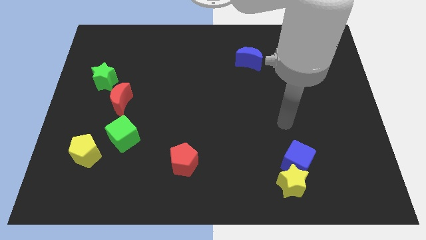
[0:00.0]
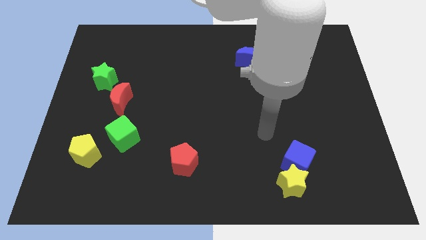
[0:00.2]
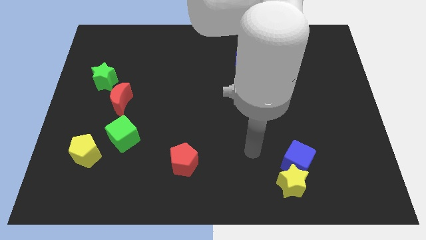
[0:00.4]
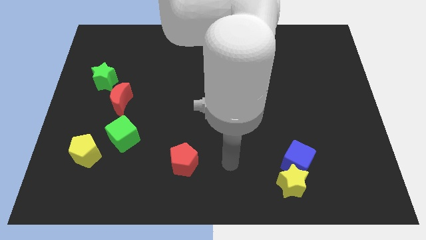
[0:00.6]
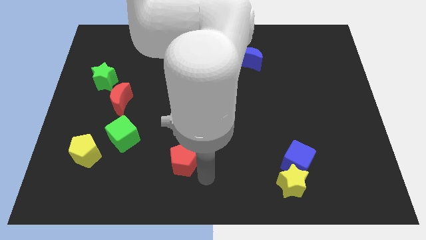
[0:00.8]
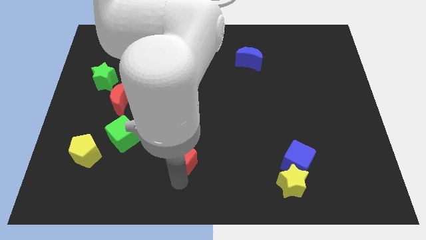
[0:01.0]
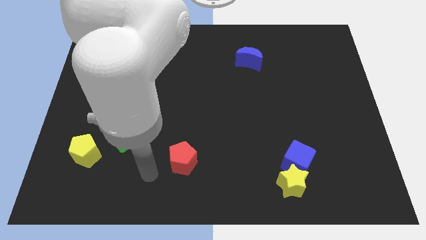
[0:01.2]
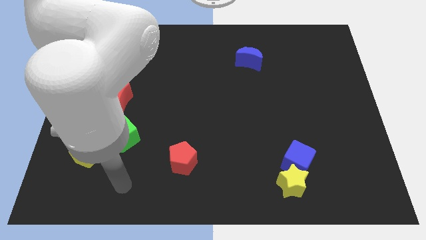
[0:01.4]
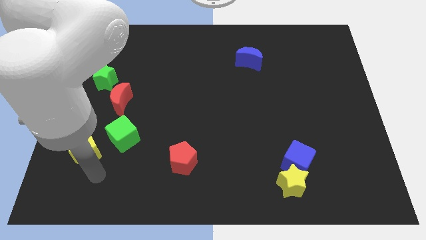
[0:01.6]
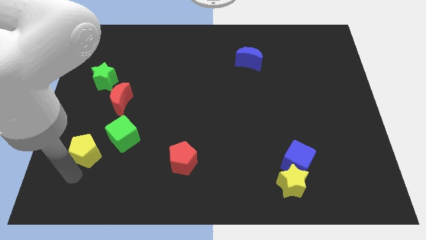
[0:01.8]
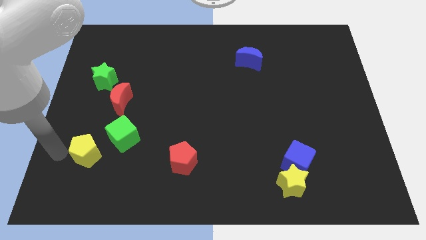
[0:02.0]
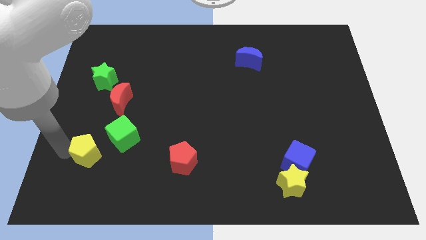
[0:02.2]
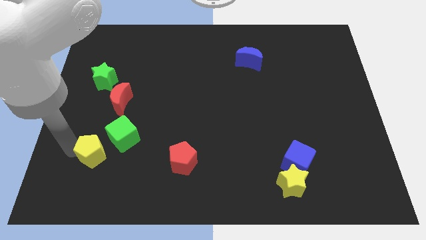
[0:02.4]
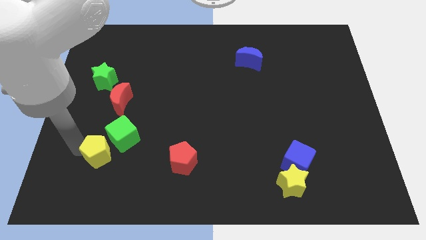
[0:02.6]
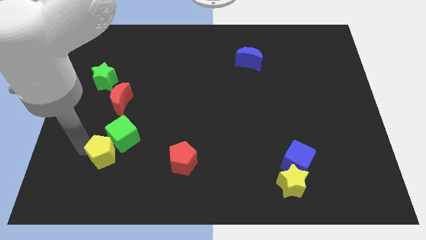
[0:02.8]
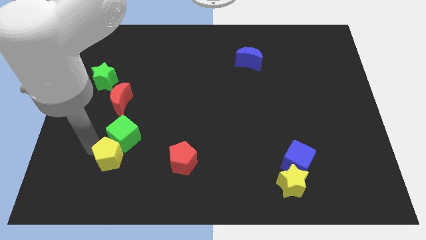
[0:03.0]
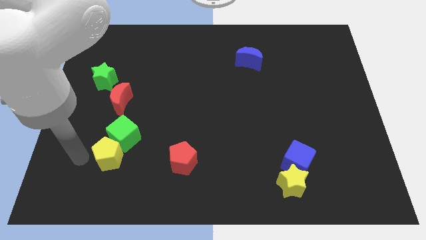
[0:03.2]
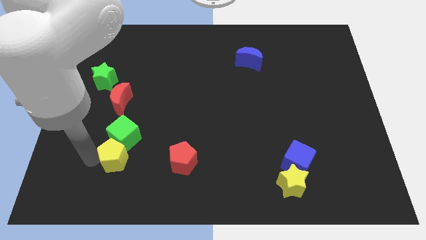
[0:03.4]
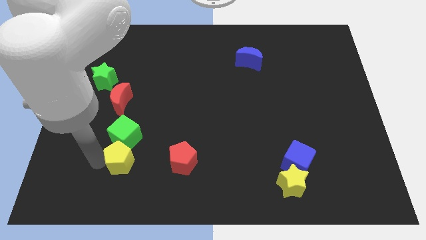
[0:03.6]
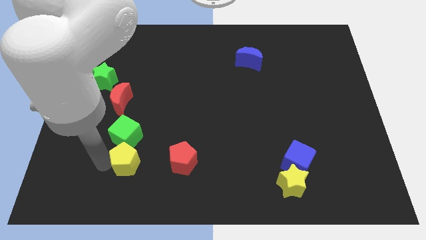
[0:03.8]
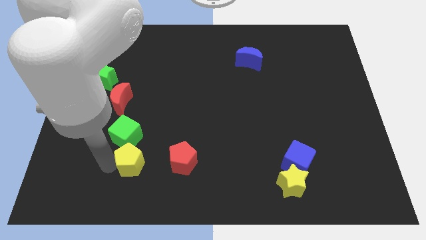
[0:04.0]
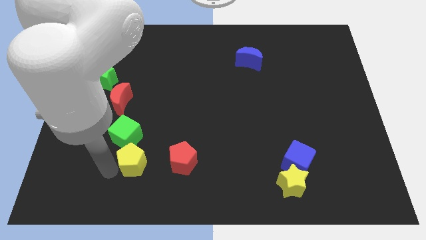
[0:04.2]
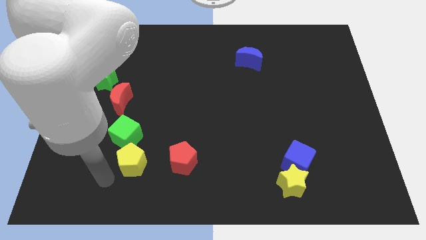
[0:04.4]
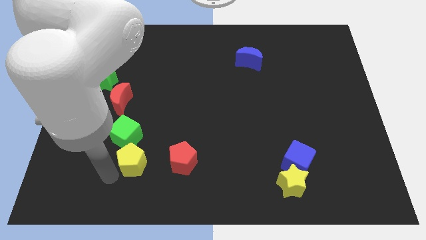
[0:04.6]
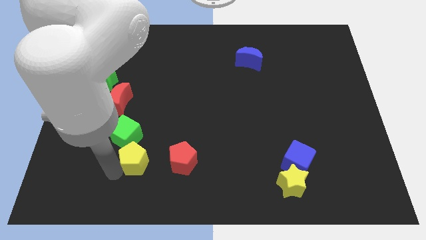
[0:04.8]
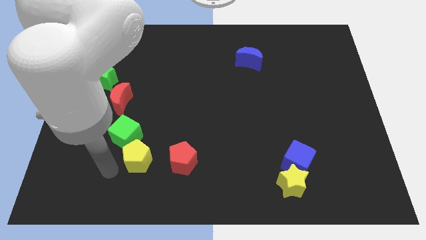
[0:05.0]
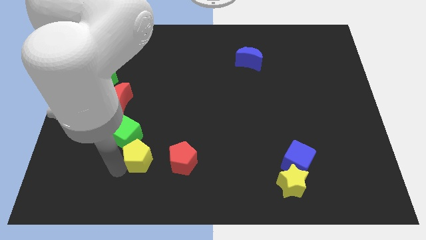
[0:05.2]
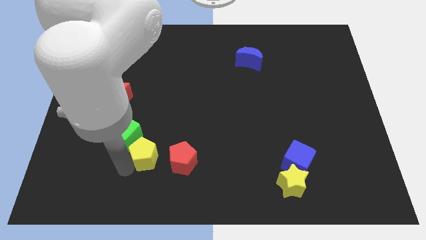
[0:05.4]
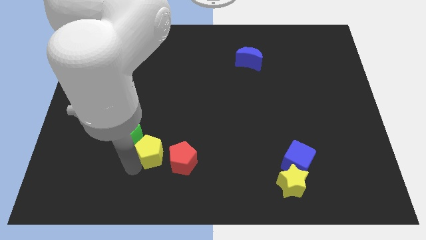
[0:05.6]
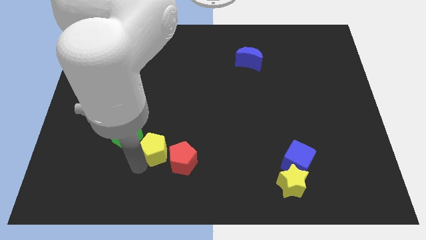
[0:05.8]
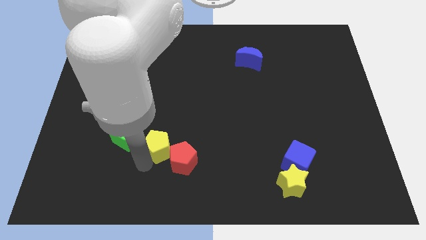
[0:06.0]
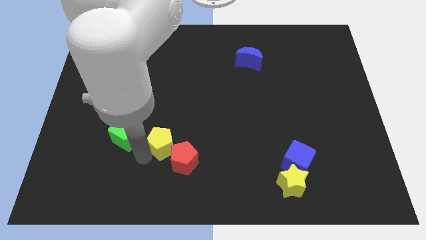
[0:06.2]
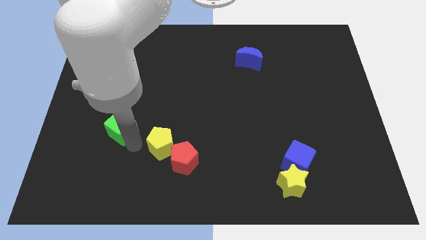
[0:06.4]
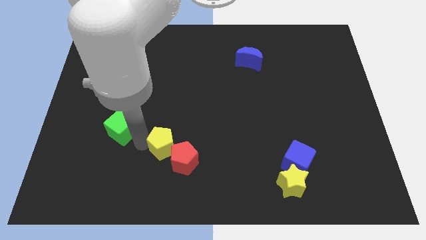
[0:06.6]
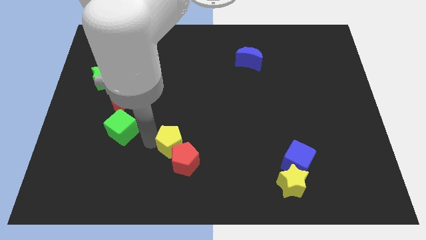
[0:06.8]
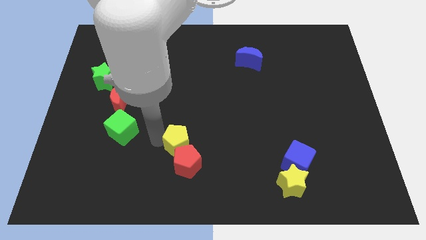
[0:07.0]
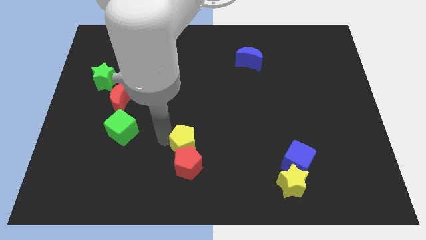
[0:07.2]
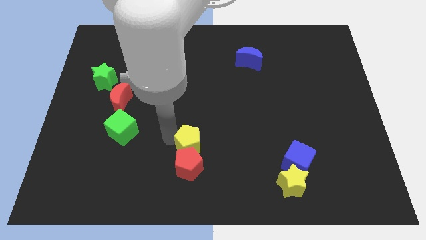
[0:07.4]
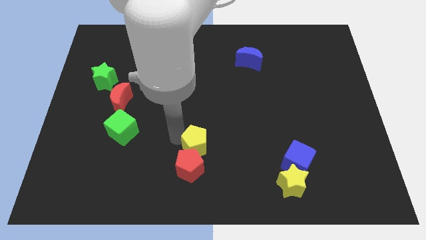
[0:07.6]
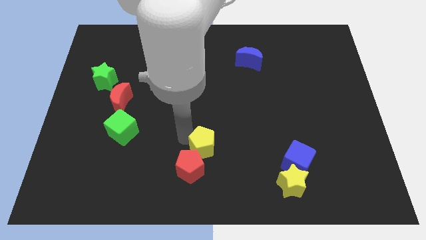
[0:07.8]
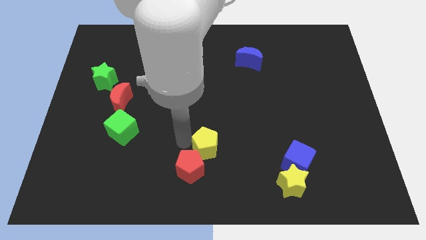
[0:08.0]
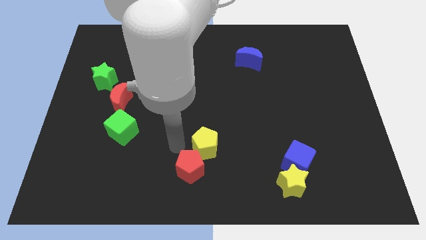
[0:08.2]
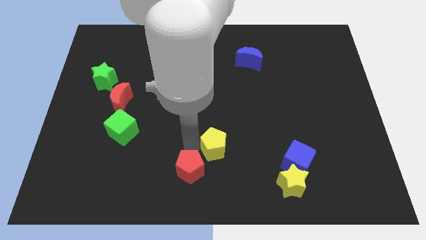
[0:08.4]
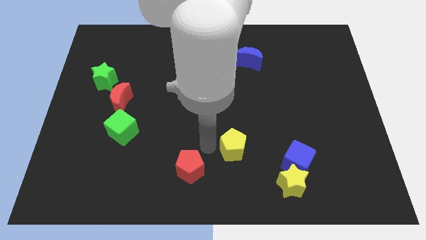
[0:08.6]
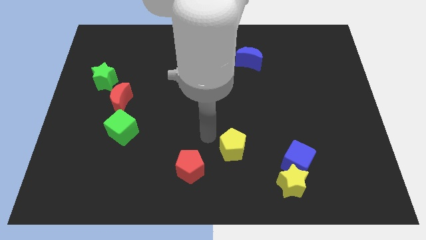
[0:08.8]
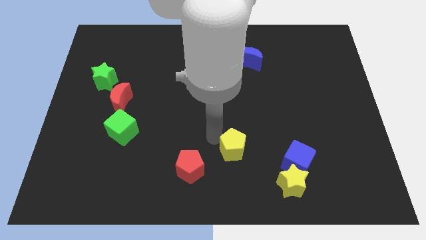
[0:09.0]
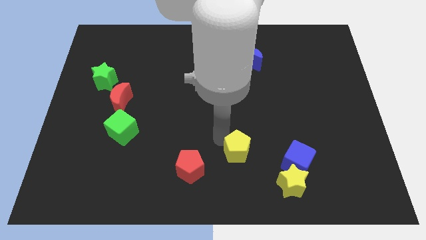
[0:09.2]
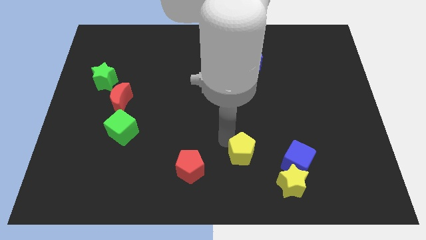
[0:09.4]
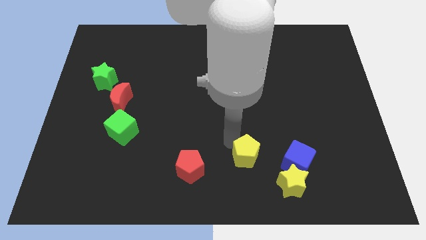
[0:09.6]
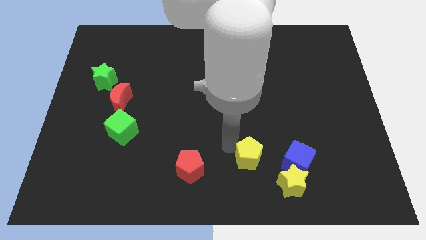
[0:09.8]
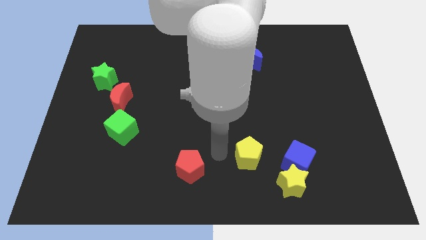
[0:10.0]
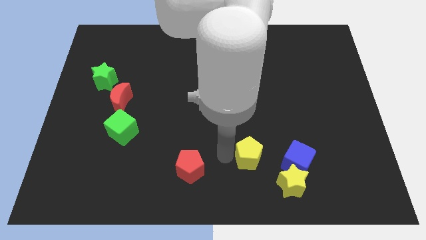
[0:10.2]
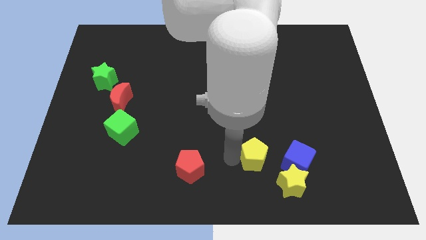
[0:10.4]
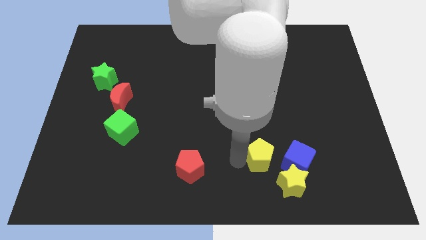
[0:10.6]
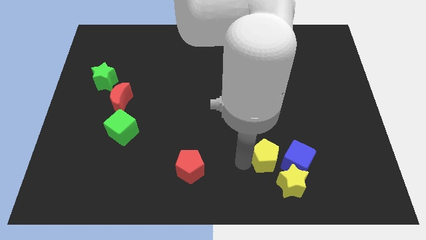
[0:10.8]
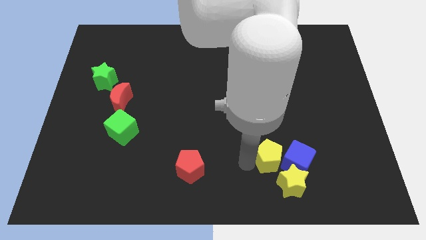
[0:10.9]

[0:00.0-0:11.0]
put the yellow pentagon close to the blue cube

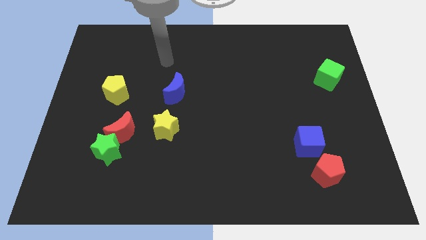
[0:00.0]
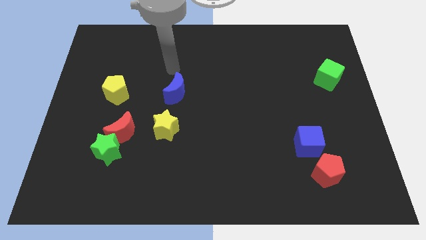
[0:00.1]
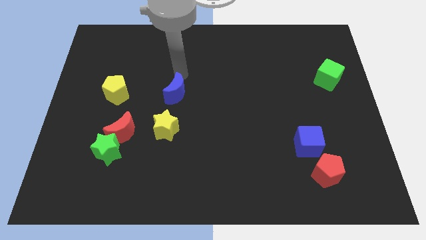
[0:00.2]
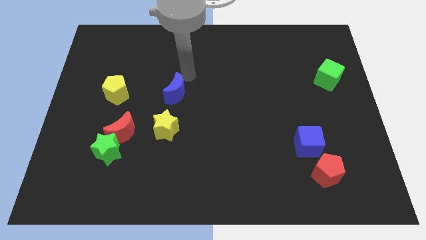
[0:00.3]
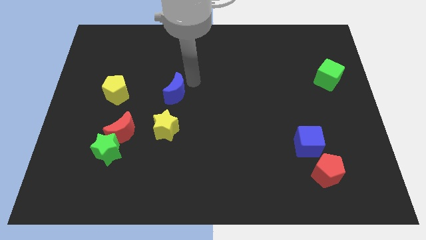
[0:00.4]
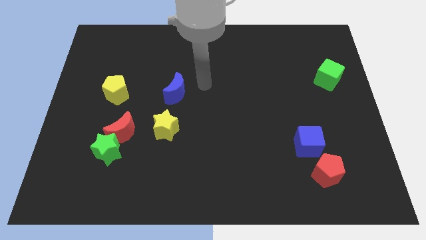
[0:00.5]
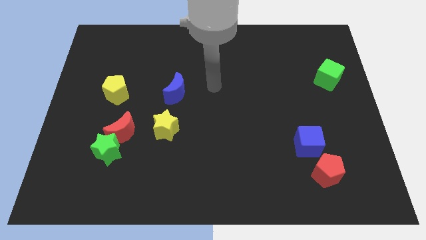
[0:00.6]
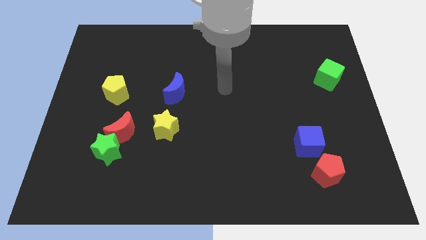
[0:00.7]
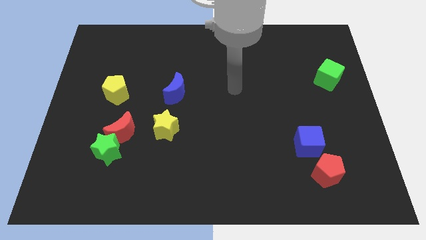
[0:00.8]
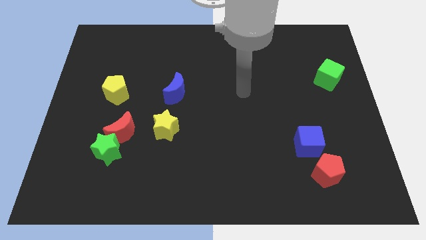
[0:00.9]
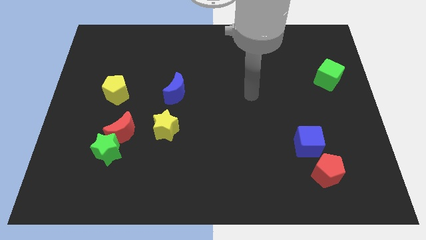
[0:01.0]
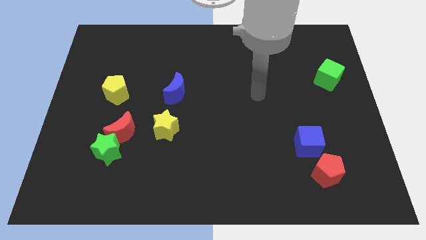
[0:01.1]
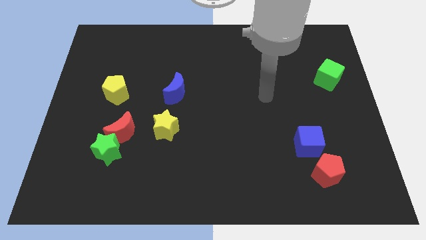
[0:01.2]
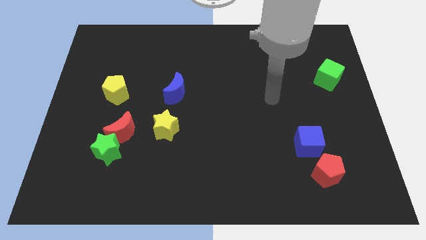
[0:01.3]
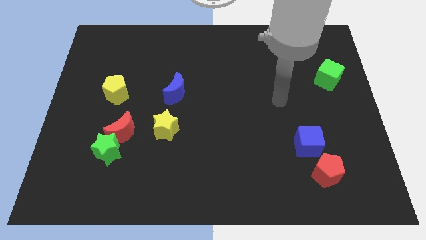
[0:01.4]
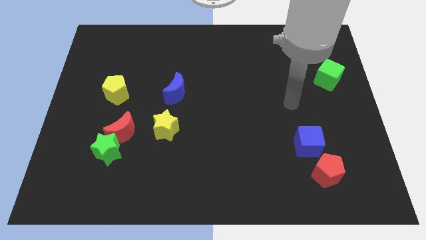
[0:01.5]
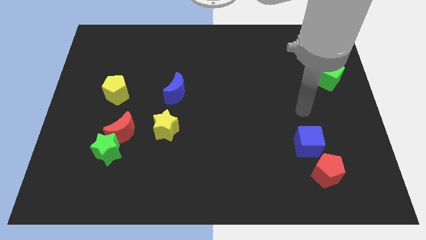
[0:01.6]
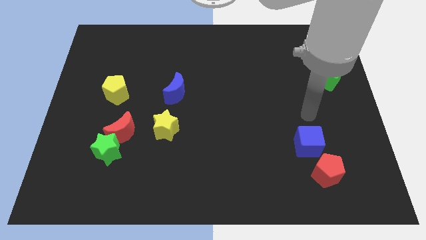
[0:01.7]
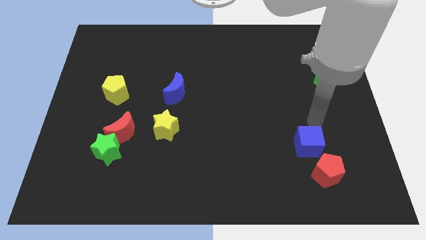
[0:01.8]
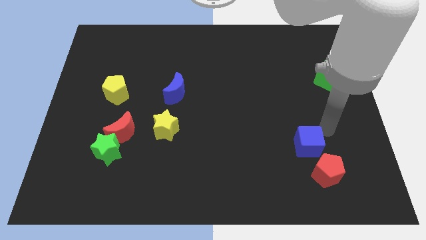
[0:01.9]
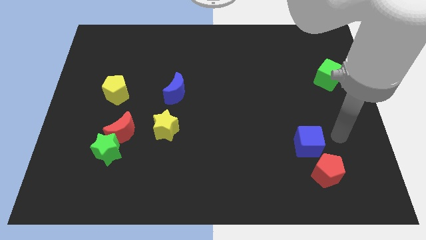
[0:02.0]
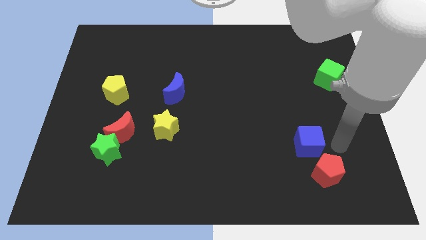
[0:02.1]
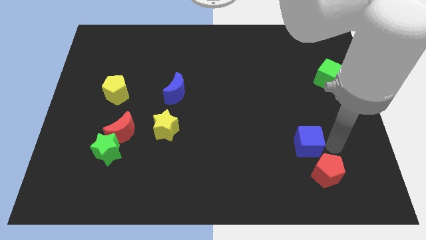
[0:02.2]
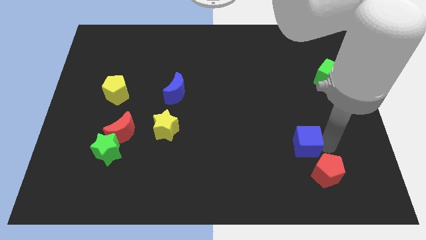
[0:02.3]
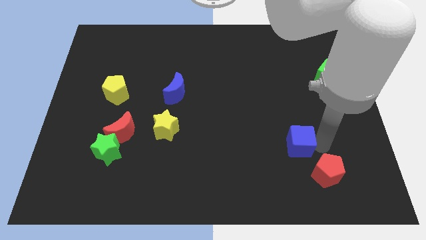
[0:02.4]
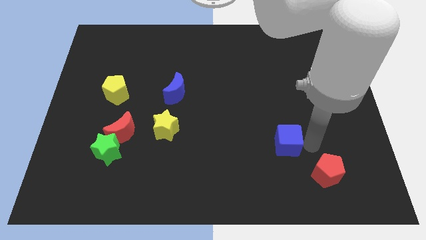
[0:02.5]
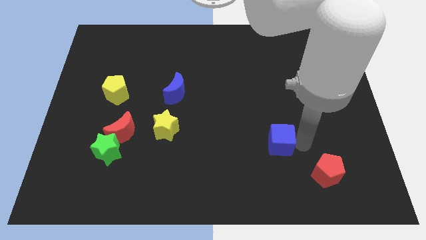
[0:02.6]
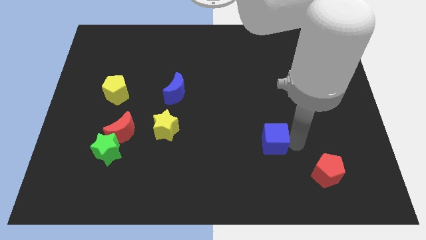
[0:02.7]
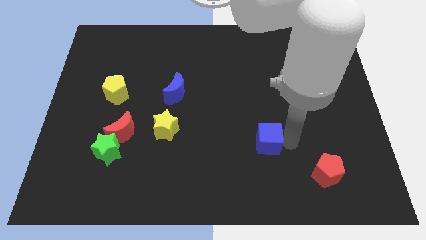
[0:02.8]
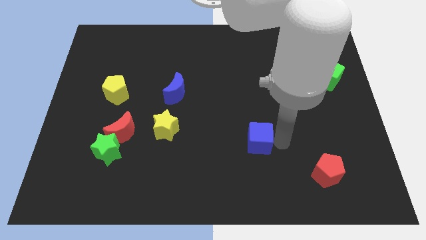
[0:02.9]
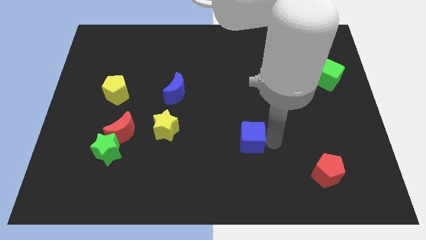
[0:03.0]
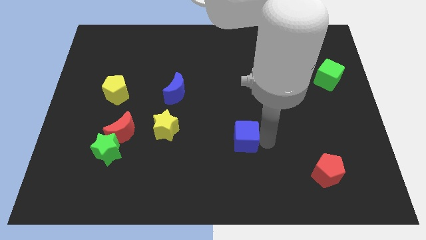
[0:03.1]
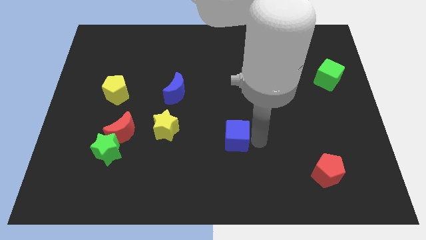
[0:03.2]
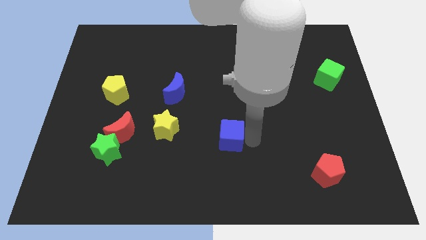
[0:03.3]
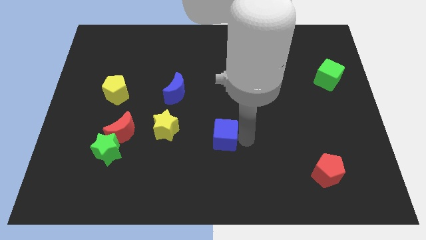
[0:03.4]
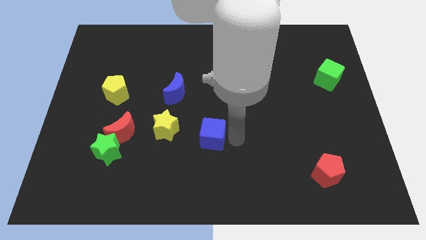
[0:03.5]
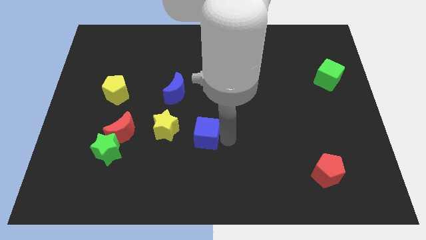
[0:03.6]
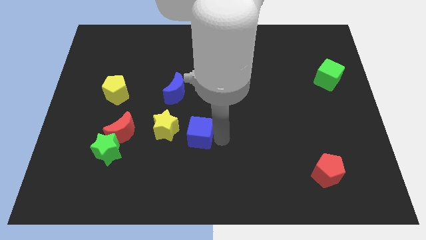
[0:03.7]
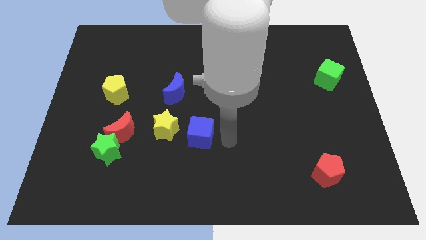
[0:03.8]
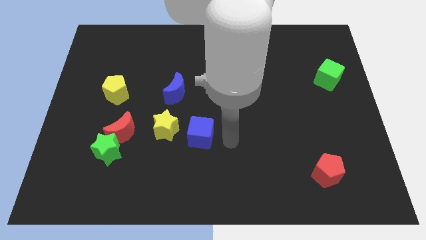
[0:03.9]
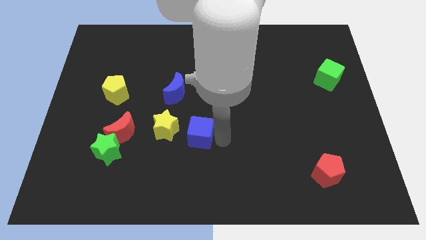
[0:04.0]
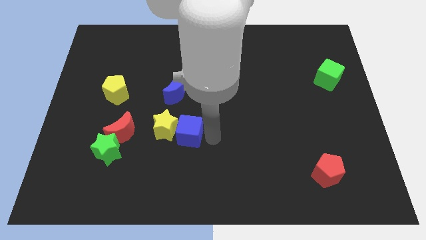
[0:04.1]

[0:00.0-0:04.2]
slide the blue cube to the yellow star
